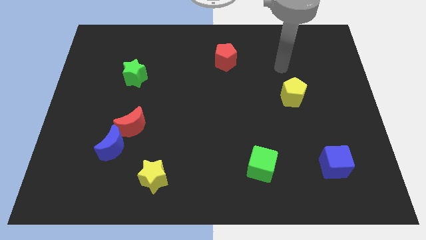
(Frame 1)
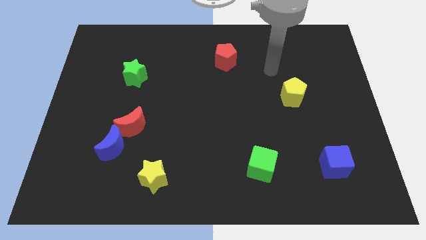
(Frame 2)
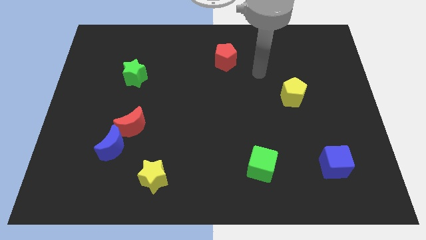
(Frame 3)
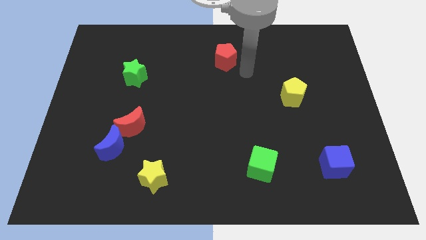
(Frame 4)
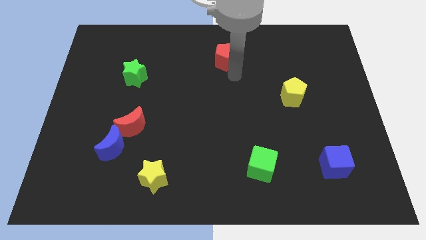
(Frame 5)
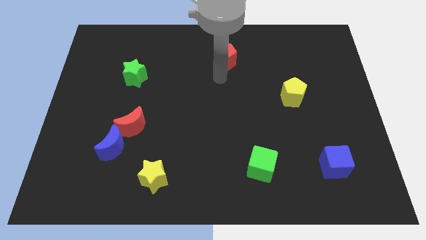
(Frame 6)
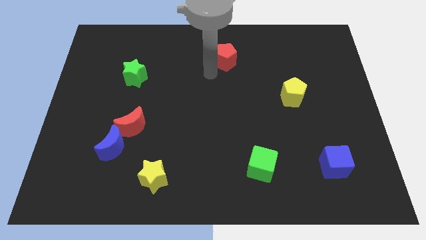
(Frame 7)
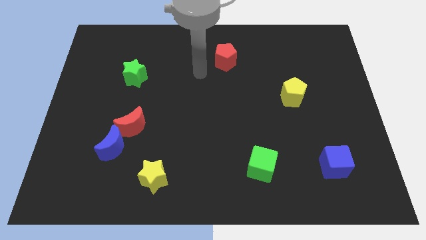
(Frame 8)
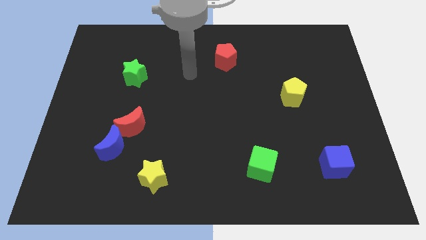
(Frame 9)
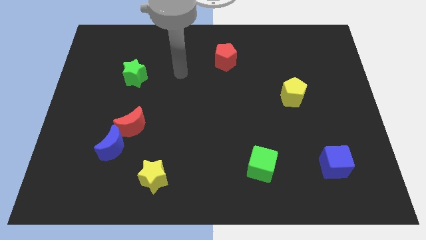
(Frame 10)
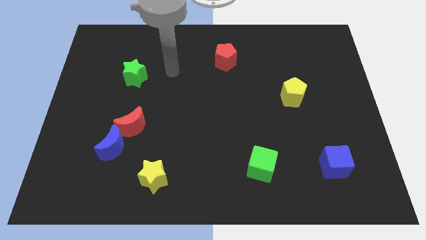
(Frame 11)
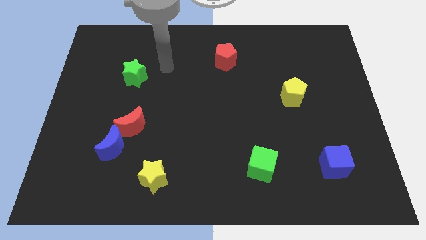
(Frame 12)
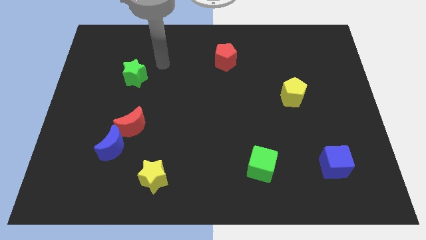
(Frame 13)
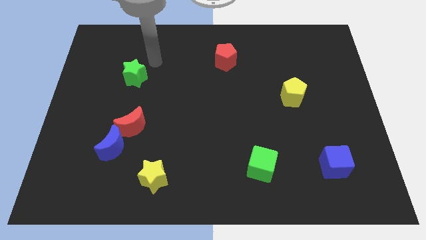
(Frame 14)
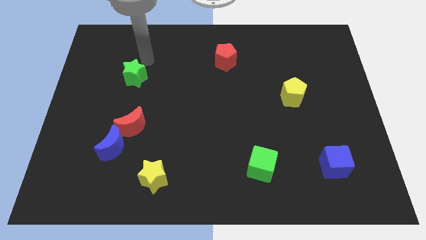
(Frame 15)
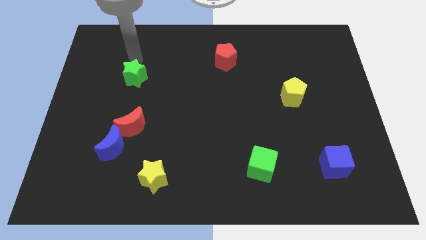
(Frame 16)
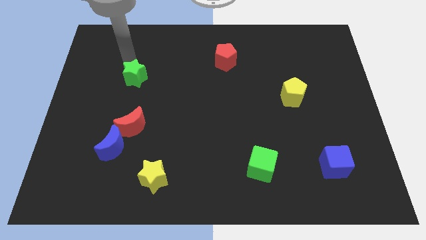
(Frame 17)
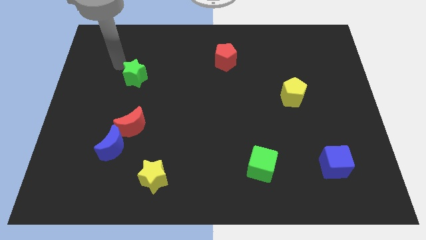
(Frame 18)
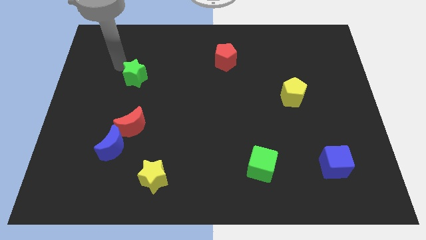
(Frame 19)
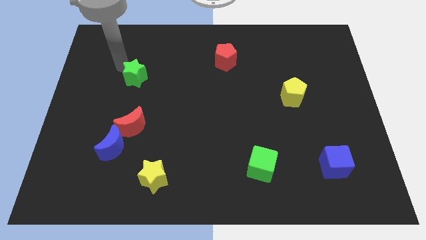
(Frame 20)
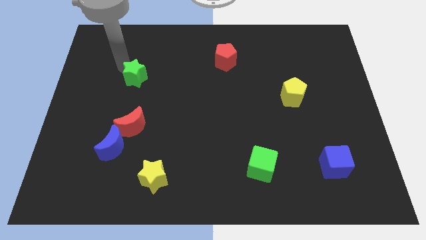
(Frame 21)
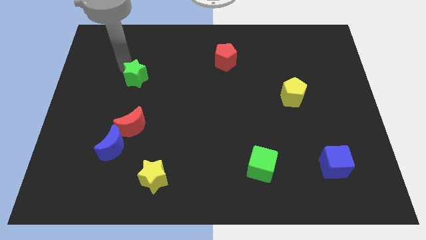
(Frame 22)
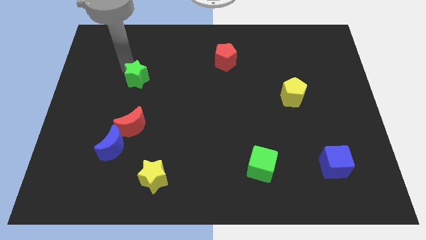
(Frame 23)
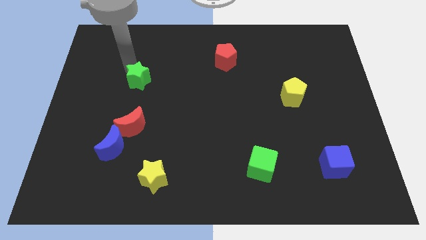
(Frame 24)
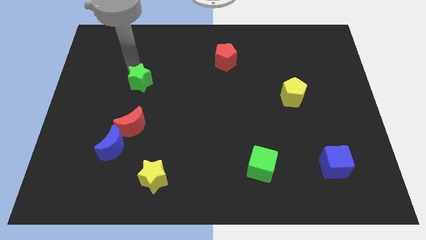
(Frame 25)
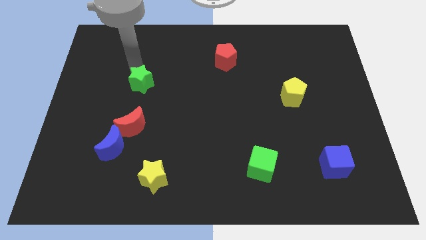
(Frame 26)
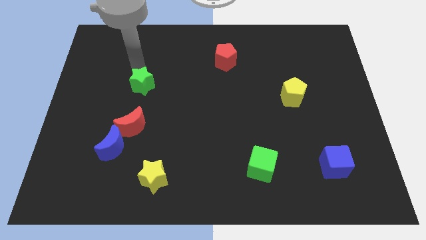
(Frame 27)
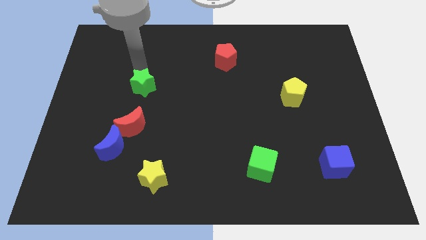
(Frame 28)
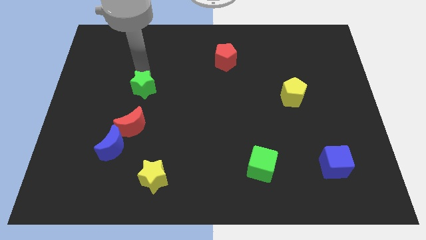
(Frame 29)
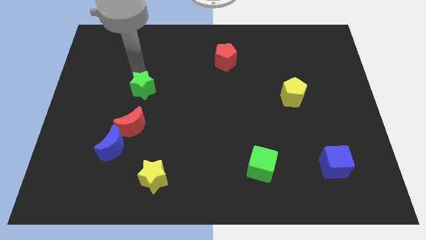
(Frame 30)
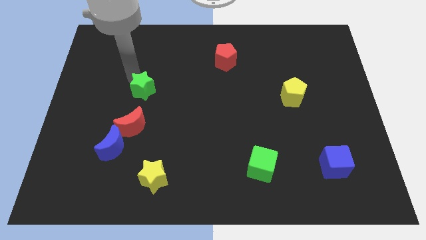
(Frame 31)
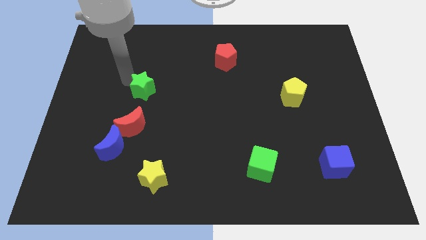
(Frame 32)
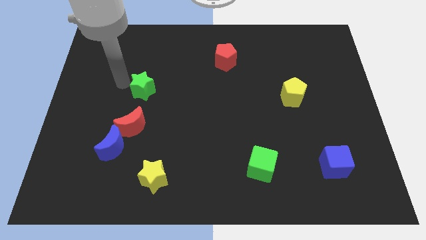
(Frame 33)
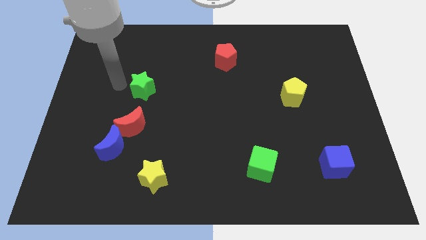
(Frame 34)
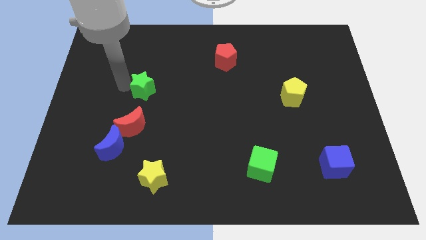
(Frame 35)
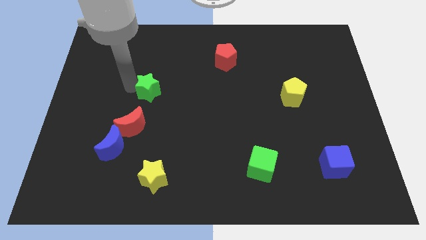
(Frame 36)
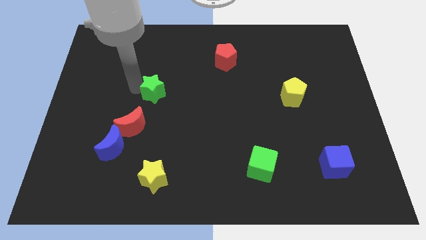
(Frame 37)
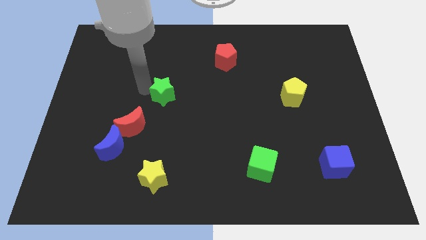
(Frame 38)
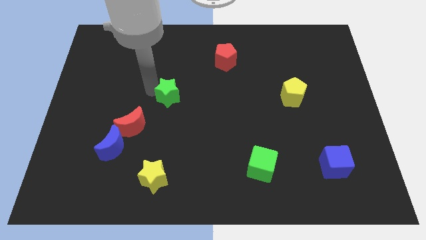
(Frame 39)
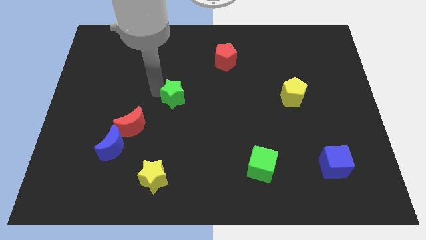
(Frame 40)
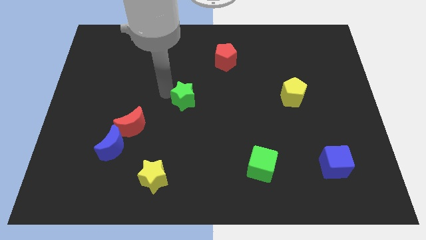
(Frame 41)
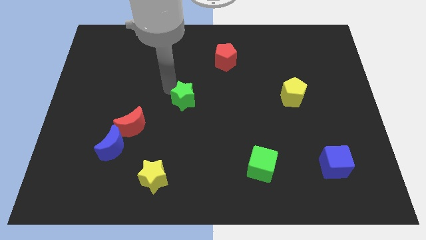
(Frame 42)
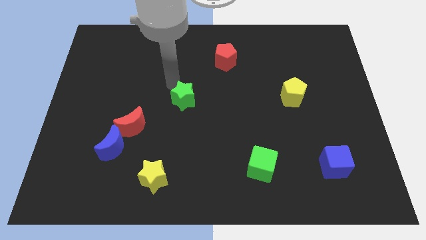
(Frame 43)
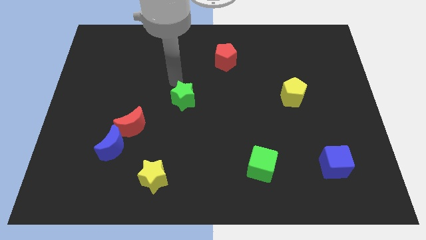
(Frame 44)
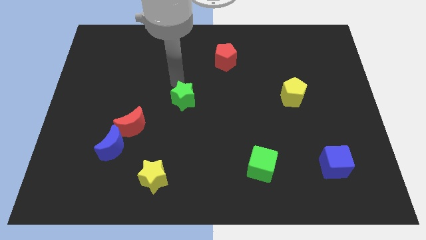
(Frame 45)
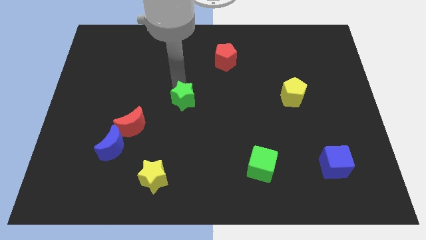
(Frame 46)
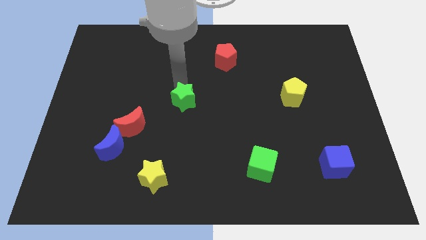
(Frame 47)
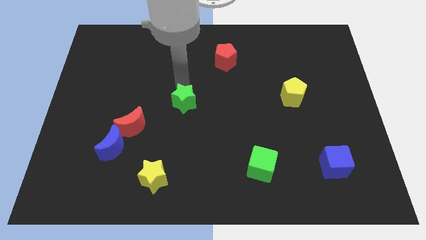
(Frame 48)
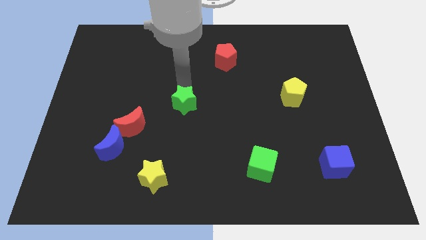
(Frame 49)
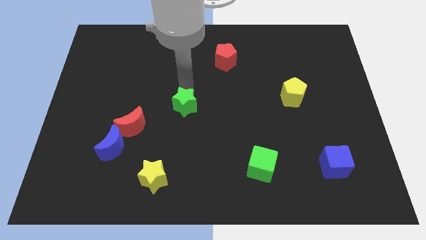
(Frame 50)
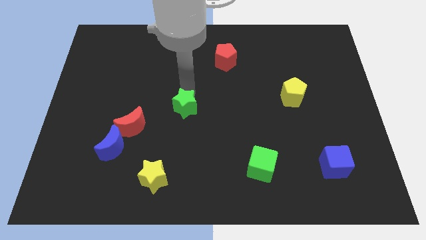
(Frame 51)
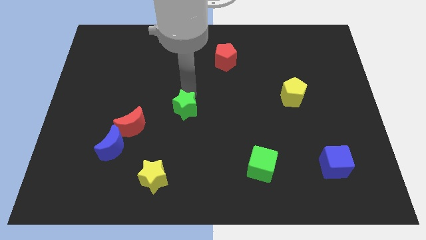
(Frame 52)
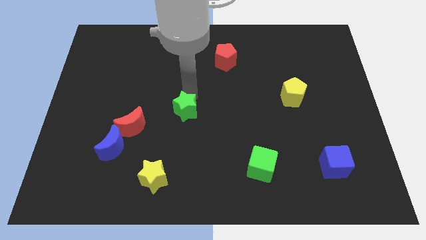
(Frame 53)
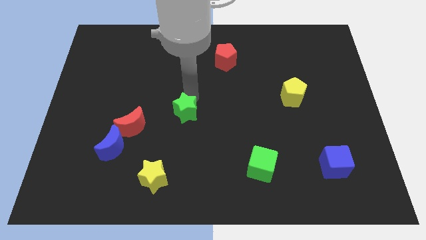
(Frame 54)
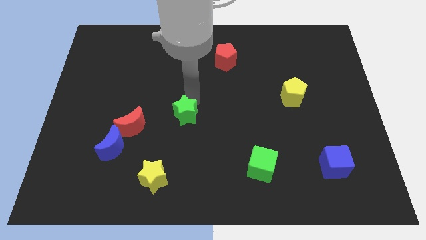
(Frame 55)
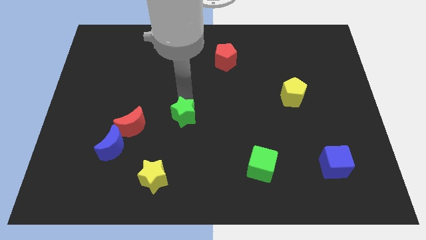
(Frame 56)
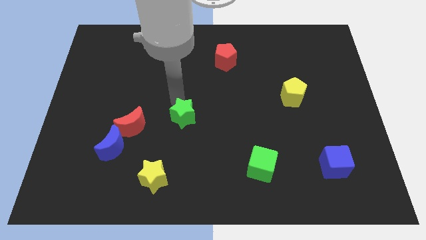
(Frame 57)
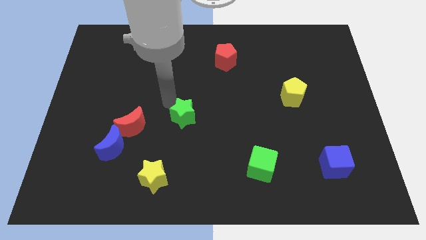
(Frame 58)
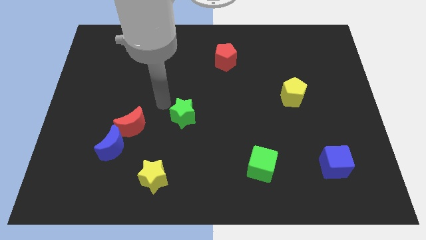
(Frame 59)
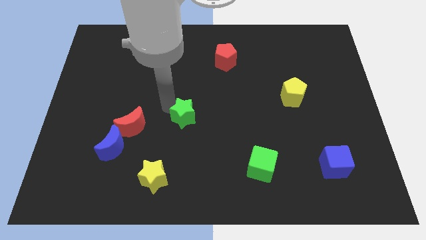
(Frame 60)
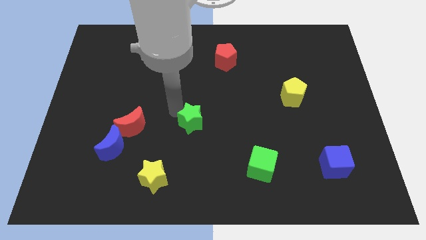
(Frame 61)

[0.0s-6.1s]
move the green star downwards and then right

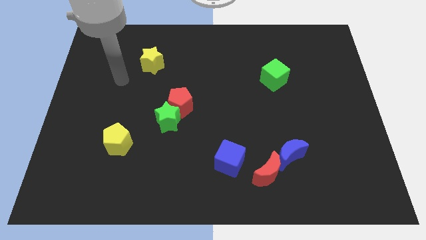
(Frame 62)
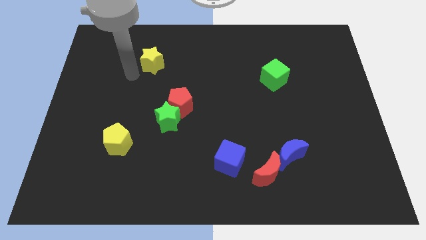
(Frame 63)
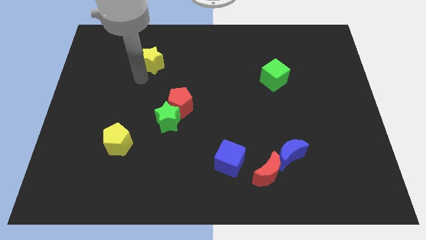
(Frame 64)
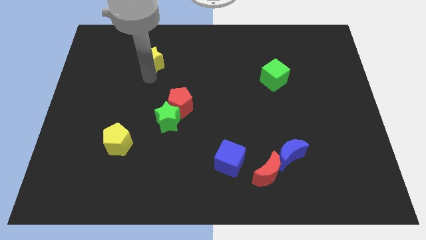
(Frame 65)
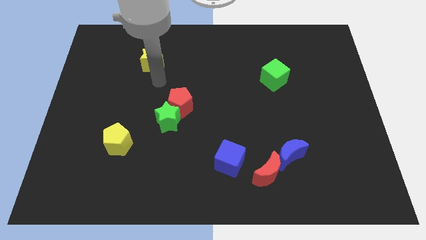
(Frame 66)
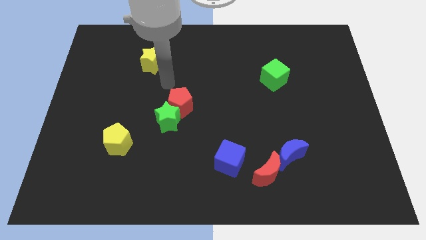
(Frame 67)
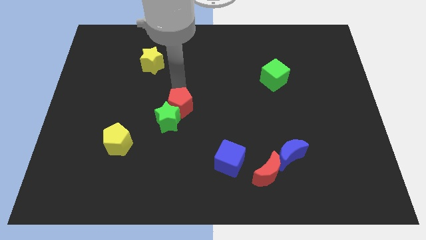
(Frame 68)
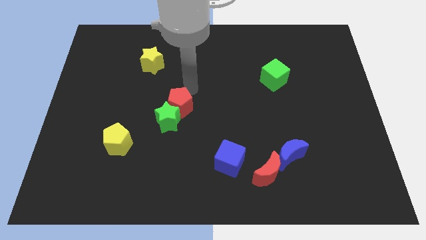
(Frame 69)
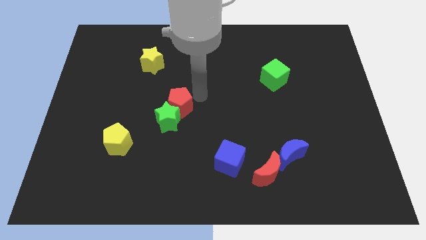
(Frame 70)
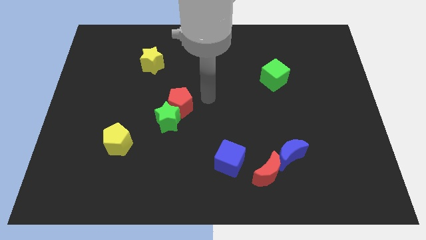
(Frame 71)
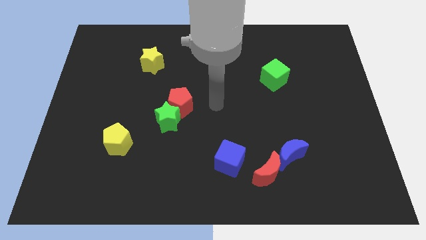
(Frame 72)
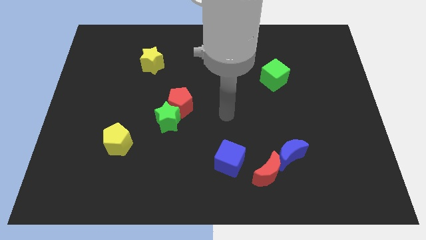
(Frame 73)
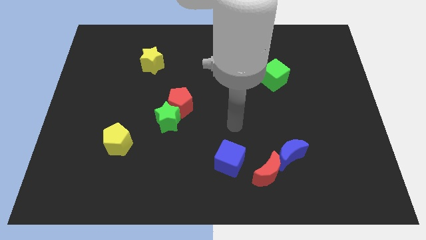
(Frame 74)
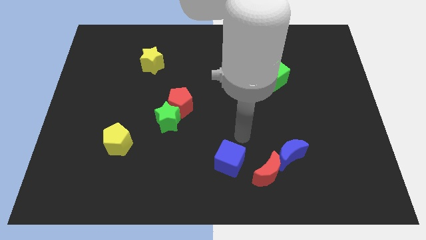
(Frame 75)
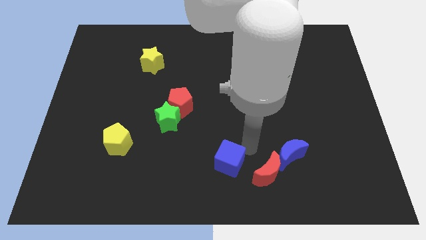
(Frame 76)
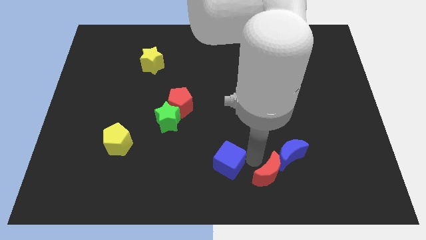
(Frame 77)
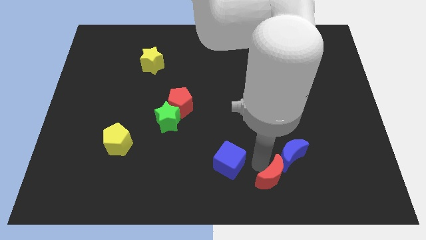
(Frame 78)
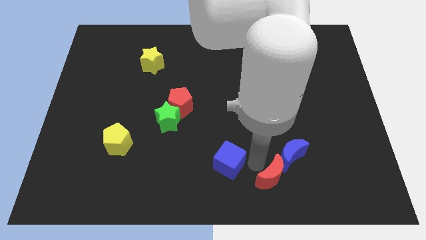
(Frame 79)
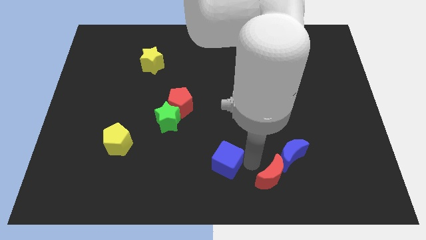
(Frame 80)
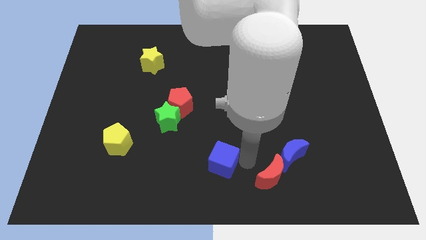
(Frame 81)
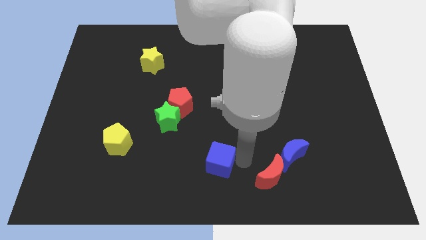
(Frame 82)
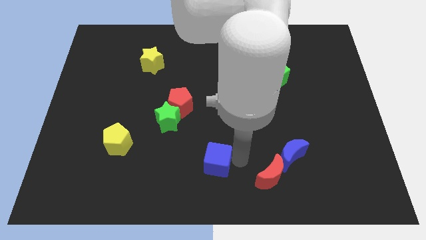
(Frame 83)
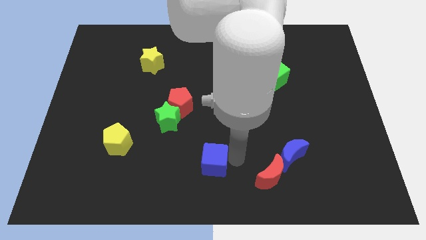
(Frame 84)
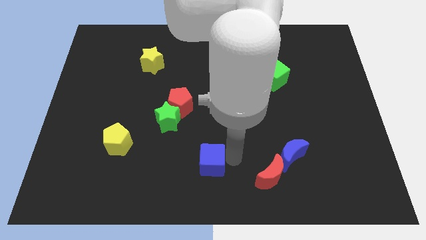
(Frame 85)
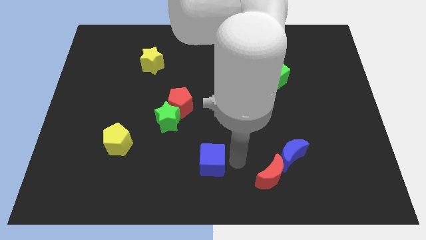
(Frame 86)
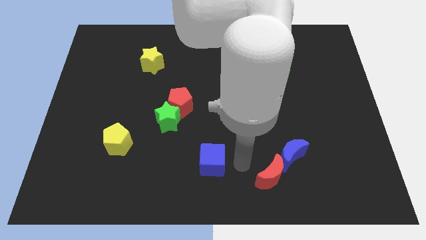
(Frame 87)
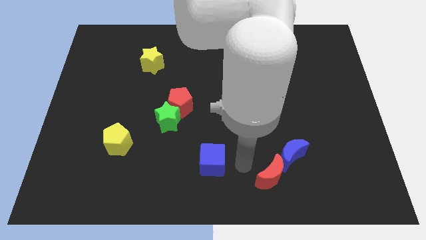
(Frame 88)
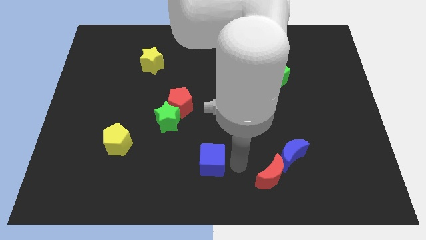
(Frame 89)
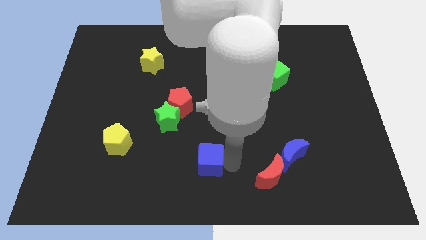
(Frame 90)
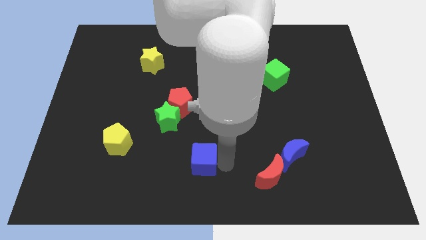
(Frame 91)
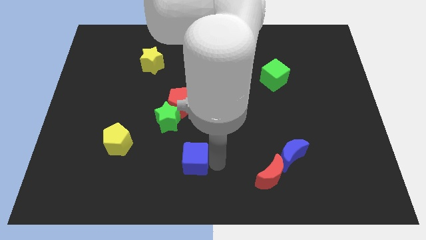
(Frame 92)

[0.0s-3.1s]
slightly move the blue cube left
